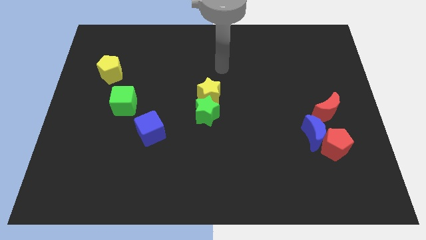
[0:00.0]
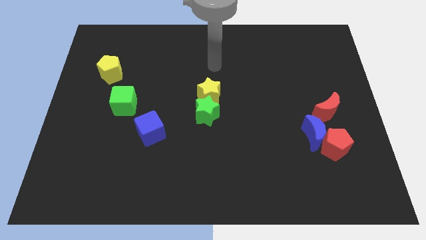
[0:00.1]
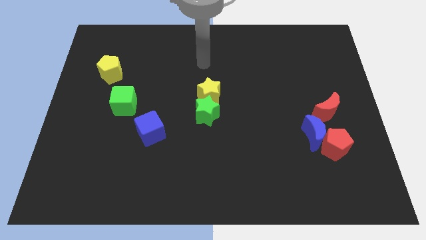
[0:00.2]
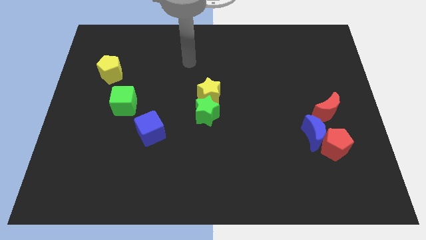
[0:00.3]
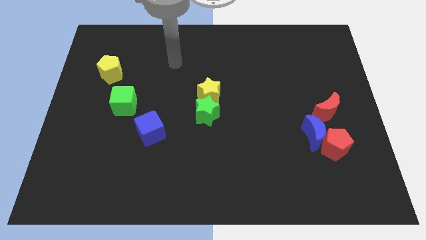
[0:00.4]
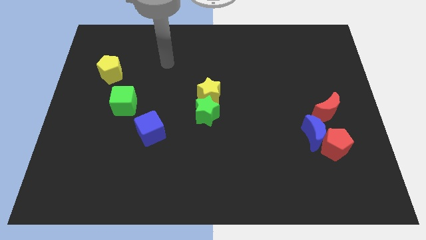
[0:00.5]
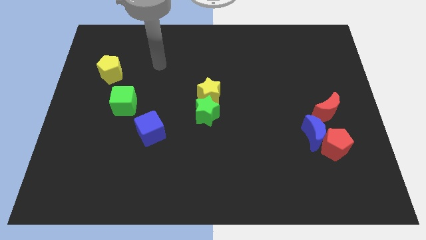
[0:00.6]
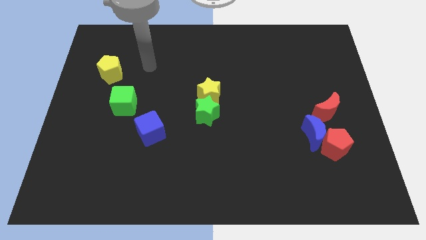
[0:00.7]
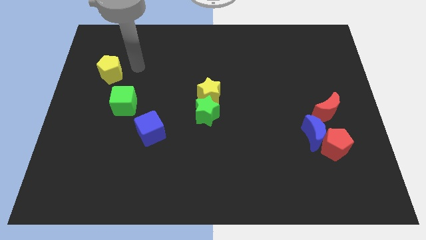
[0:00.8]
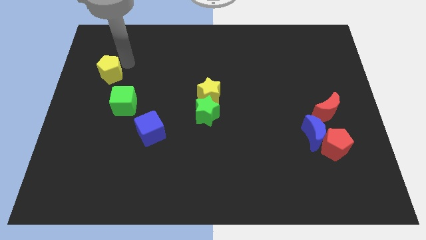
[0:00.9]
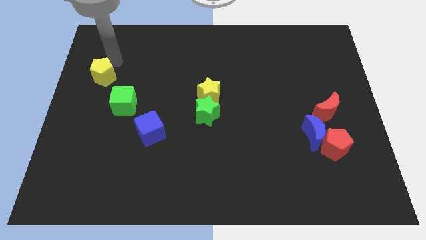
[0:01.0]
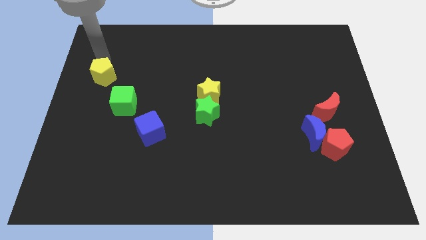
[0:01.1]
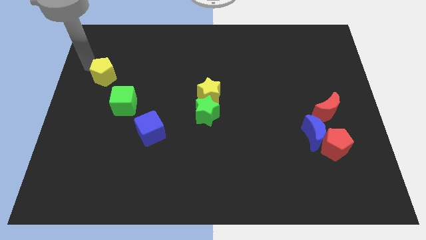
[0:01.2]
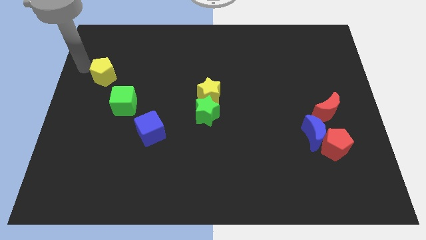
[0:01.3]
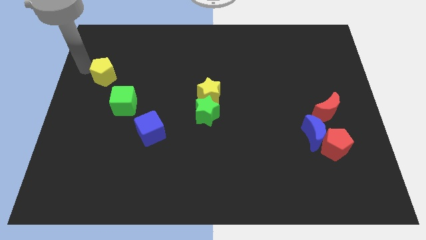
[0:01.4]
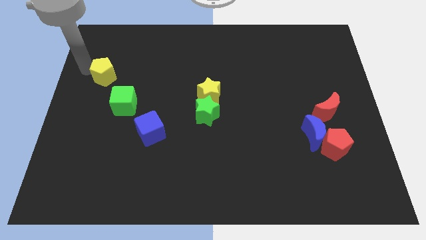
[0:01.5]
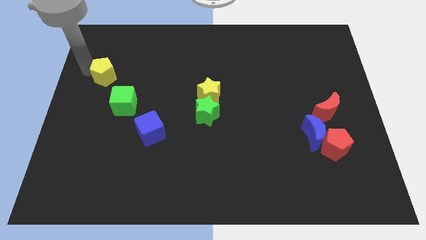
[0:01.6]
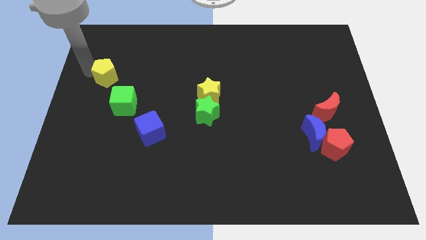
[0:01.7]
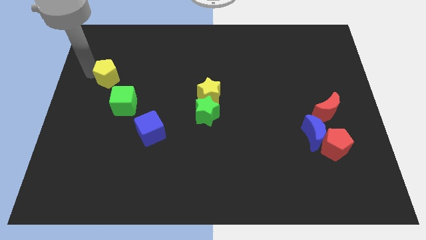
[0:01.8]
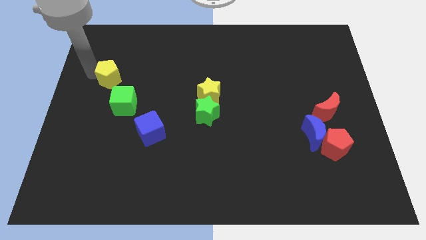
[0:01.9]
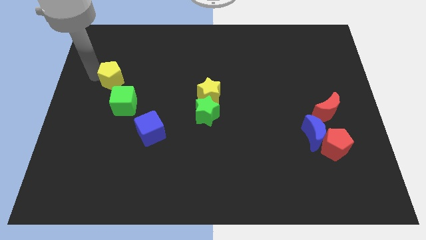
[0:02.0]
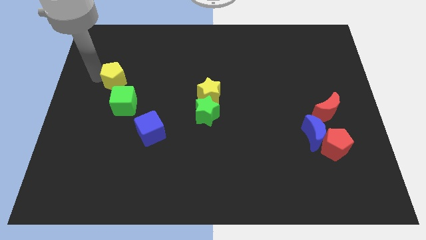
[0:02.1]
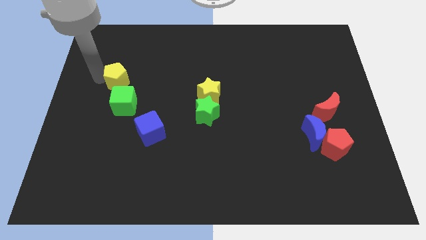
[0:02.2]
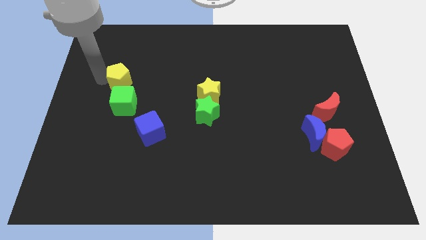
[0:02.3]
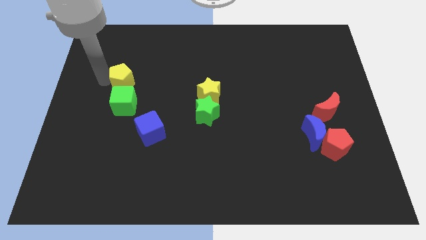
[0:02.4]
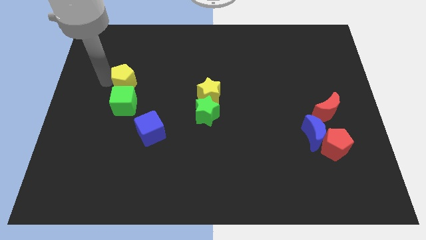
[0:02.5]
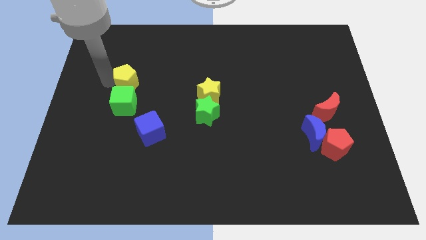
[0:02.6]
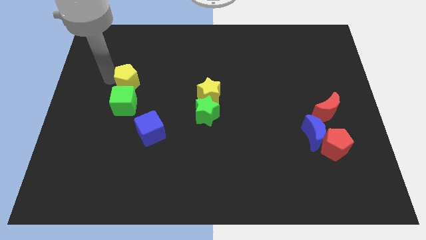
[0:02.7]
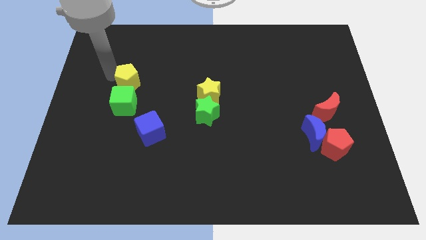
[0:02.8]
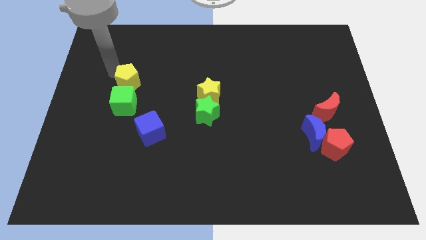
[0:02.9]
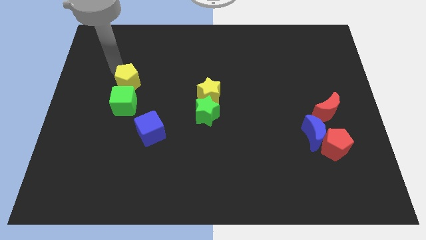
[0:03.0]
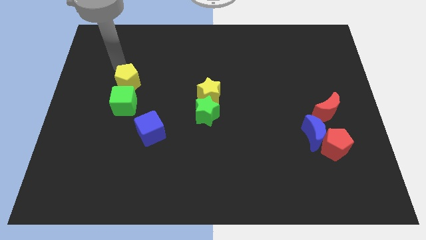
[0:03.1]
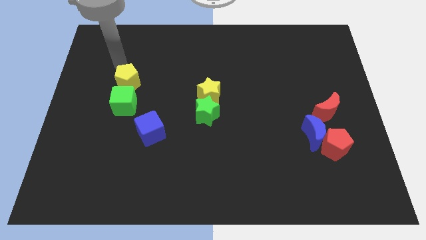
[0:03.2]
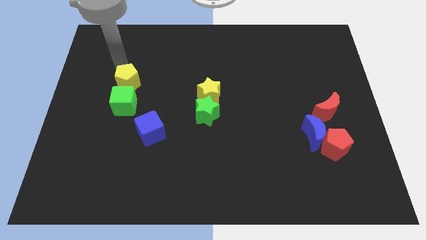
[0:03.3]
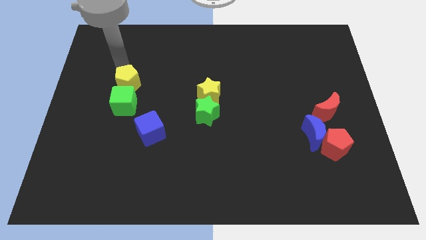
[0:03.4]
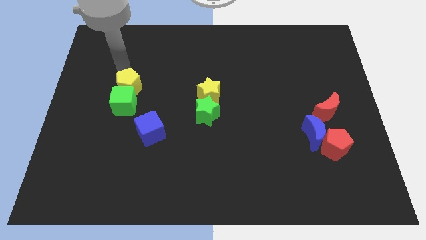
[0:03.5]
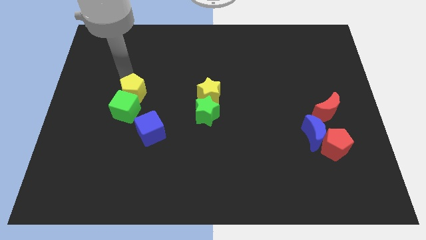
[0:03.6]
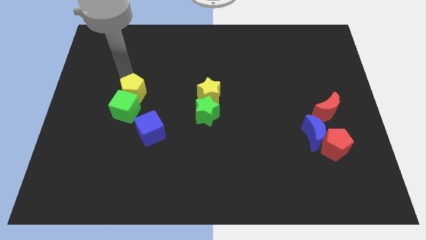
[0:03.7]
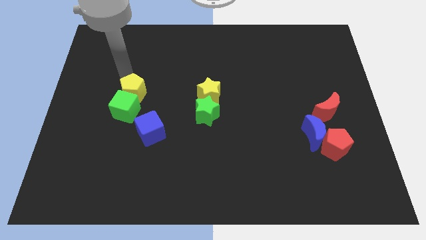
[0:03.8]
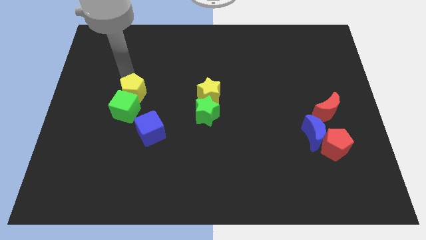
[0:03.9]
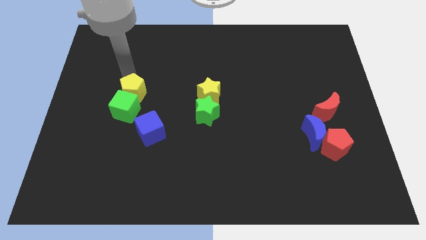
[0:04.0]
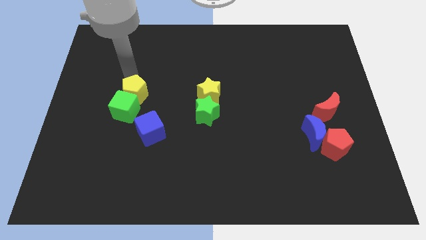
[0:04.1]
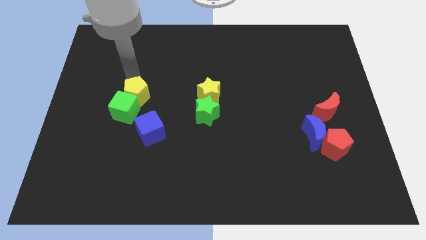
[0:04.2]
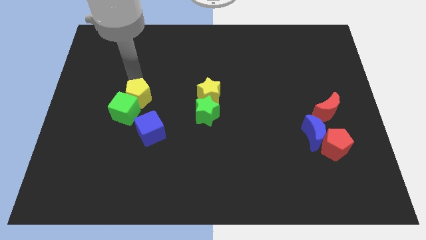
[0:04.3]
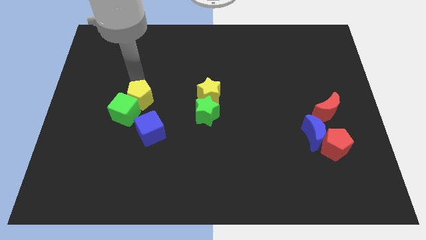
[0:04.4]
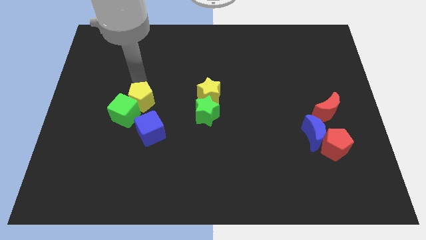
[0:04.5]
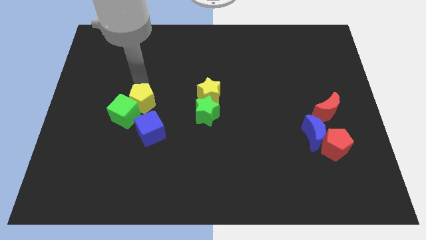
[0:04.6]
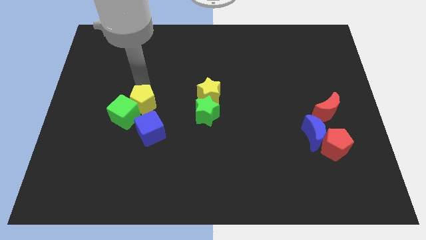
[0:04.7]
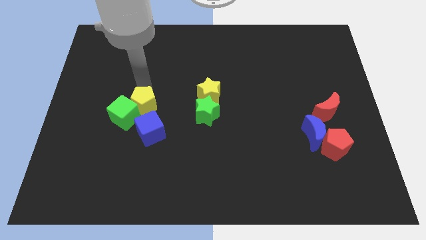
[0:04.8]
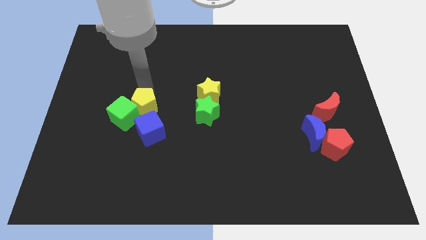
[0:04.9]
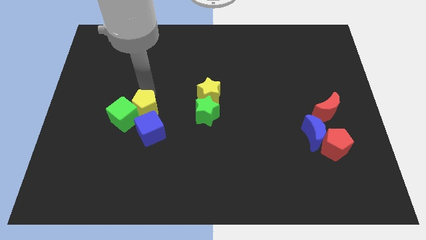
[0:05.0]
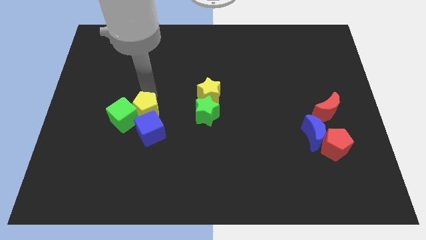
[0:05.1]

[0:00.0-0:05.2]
put the yellow pentagon towards the blue cube

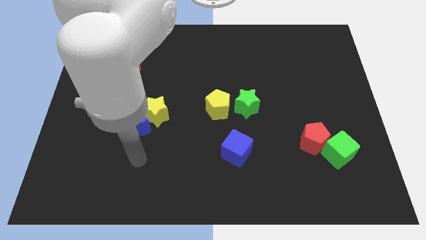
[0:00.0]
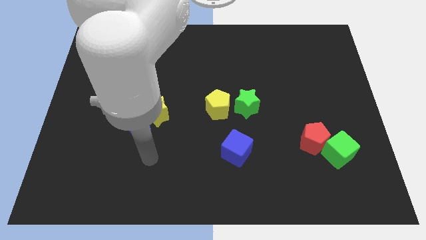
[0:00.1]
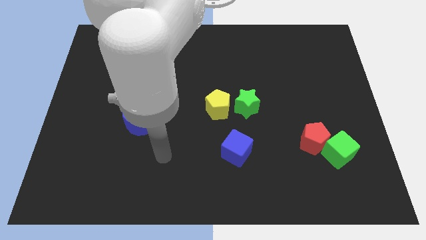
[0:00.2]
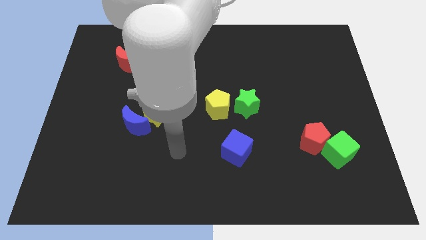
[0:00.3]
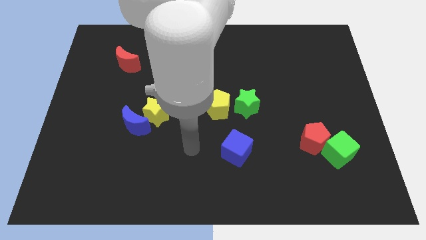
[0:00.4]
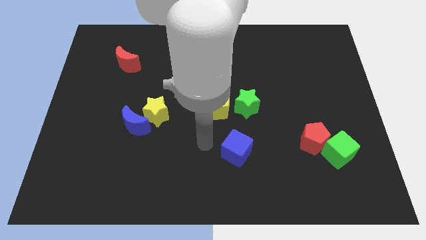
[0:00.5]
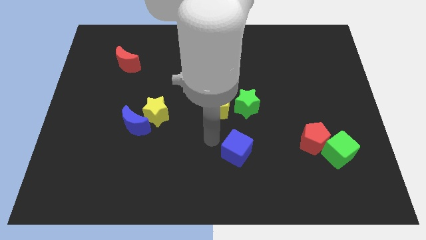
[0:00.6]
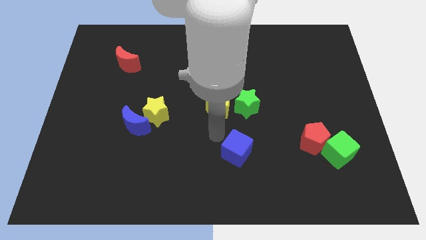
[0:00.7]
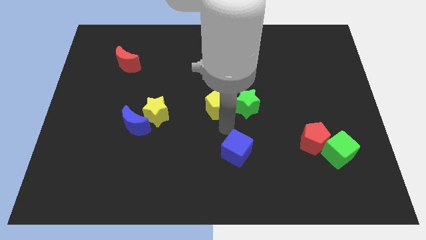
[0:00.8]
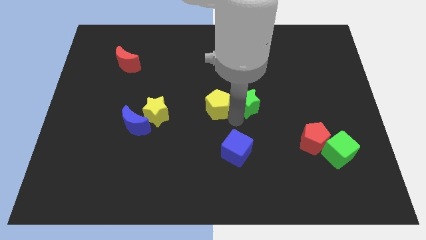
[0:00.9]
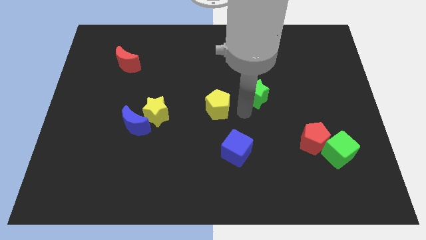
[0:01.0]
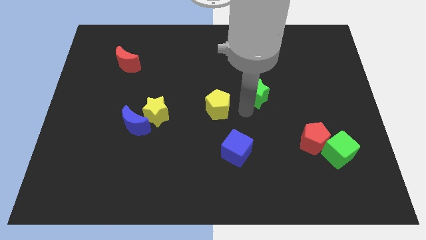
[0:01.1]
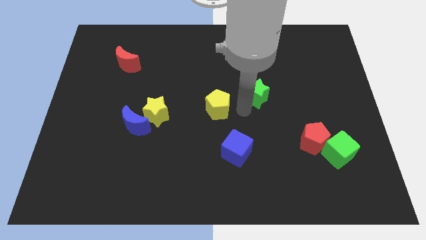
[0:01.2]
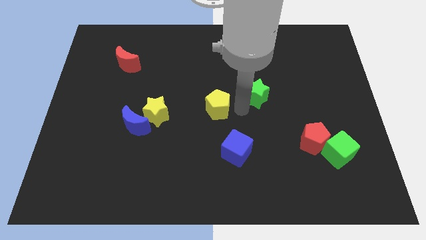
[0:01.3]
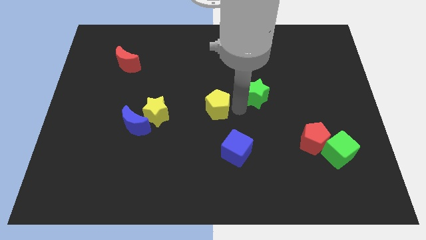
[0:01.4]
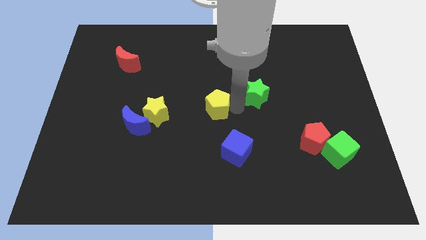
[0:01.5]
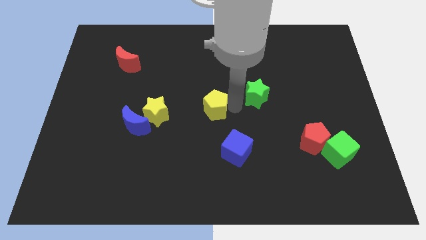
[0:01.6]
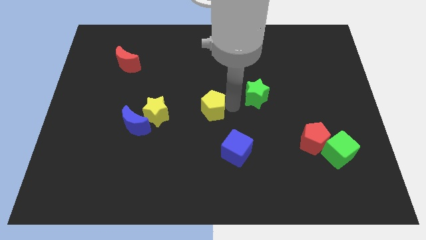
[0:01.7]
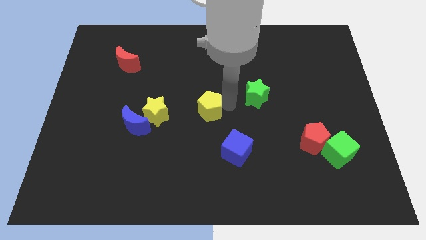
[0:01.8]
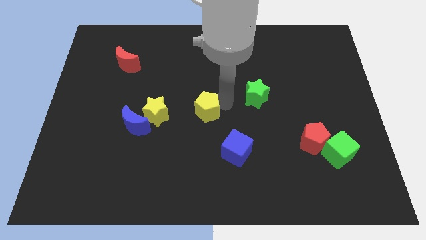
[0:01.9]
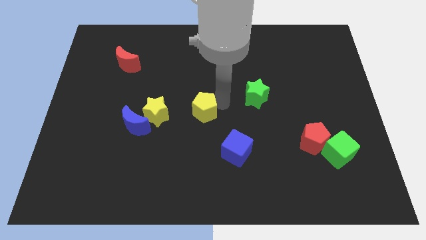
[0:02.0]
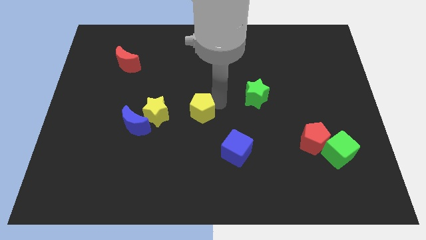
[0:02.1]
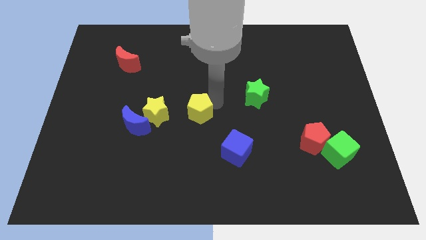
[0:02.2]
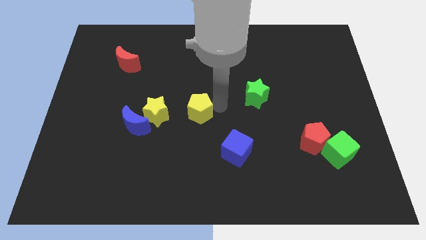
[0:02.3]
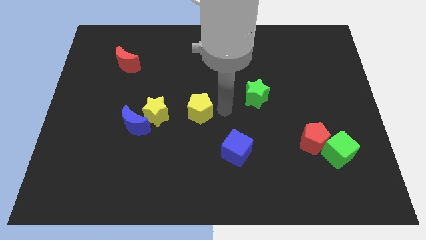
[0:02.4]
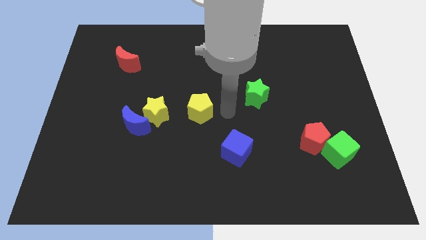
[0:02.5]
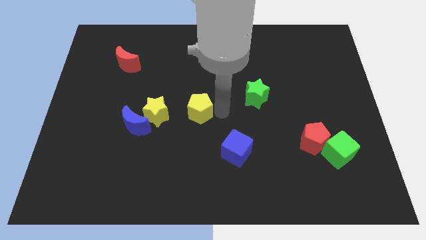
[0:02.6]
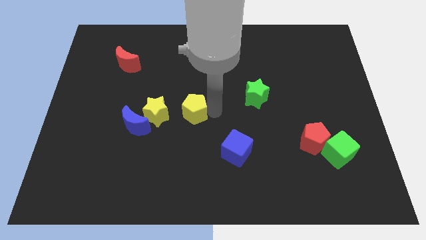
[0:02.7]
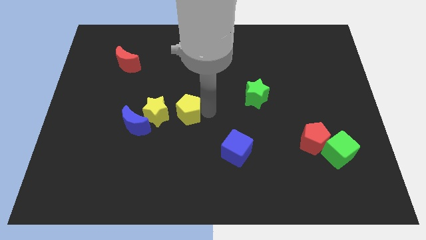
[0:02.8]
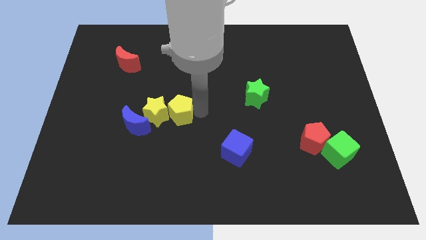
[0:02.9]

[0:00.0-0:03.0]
put the yellow pentagon towards the yellow star
